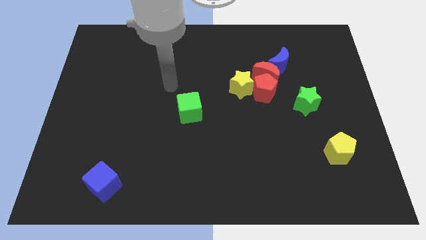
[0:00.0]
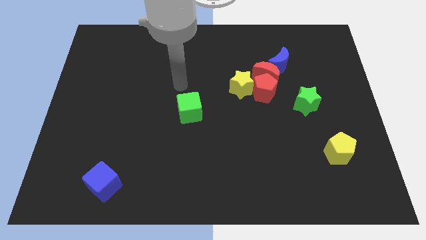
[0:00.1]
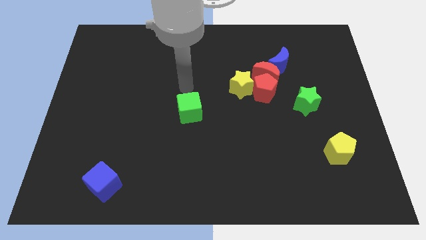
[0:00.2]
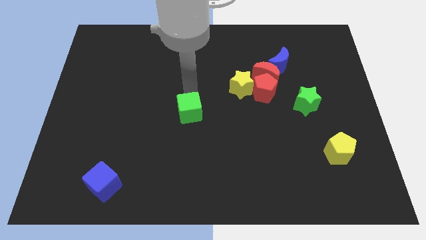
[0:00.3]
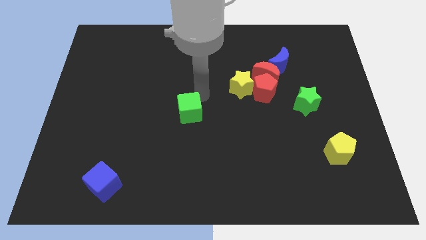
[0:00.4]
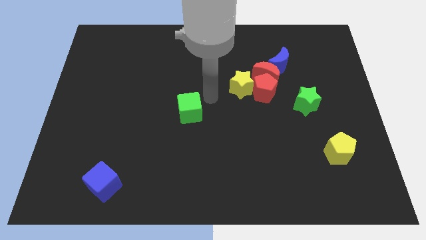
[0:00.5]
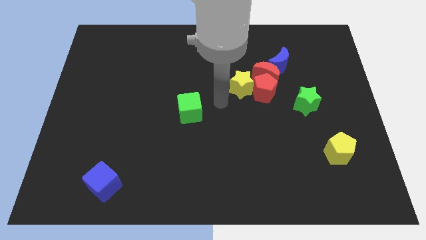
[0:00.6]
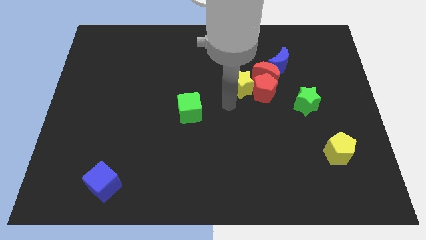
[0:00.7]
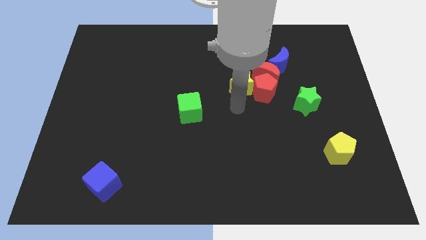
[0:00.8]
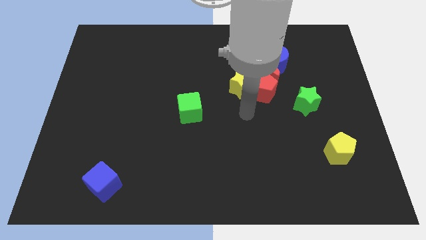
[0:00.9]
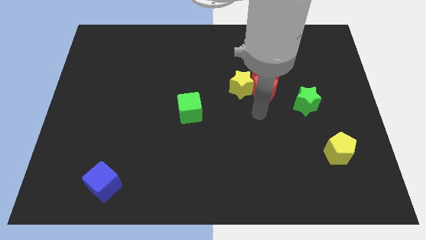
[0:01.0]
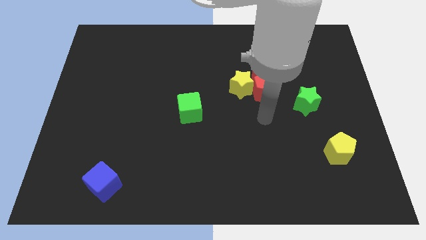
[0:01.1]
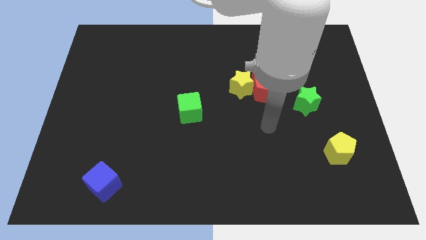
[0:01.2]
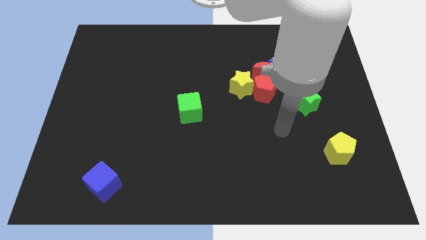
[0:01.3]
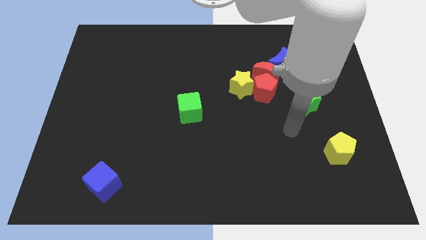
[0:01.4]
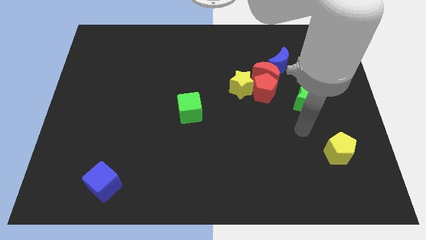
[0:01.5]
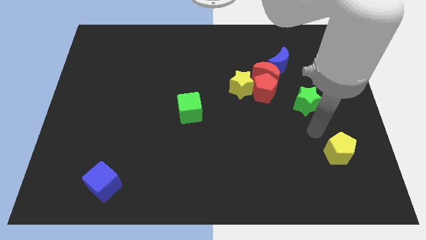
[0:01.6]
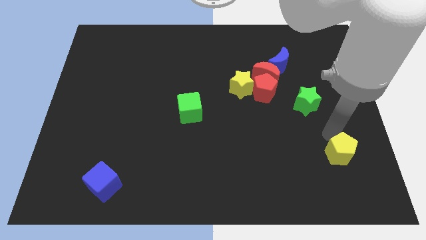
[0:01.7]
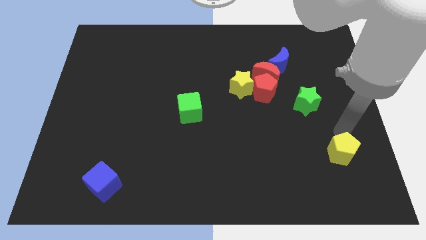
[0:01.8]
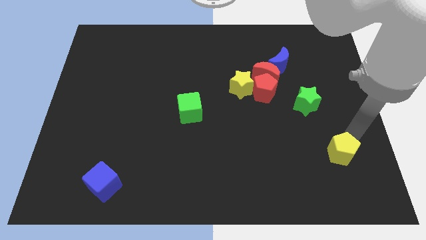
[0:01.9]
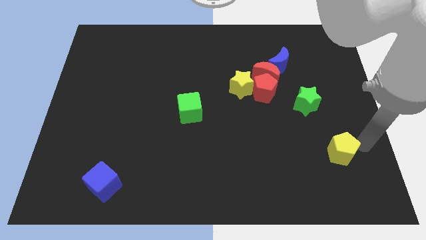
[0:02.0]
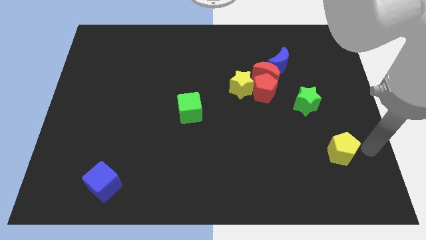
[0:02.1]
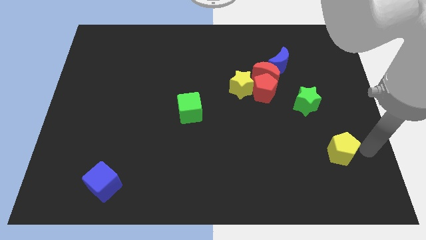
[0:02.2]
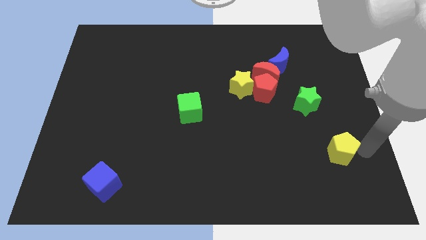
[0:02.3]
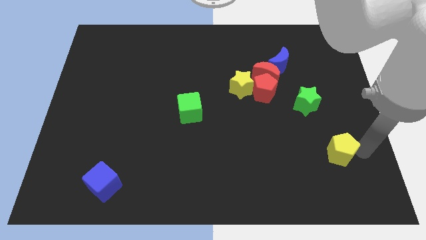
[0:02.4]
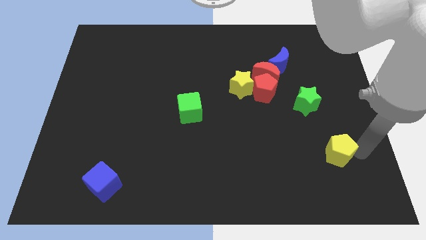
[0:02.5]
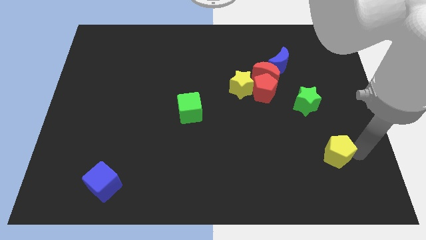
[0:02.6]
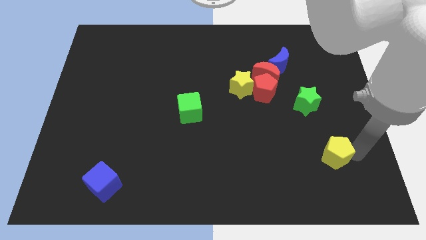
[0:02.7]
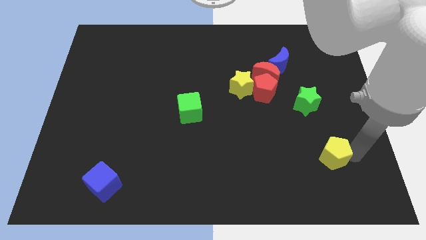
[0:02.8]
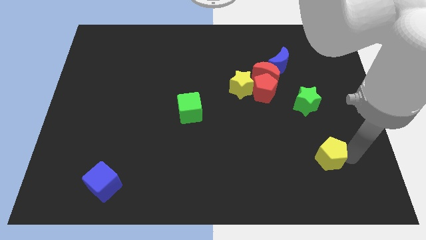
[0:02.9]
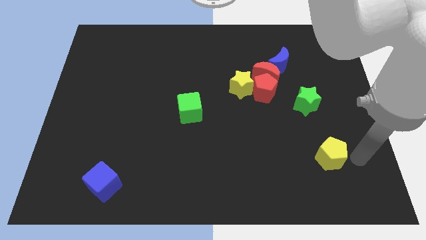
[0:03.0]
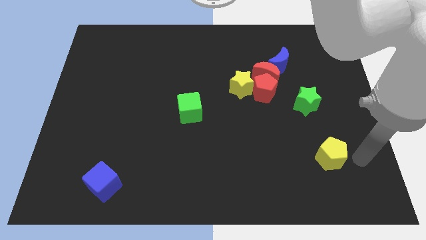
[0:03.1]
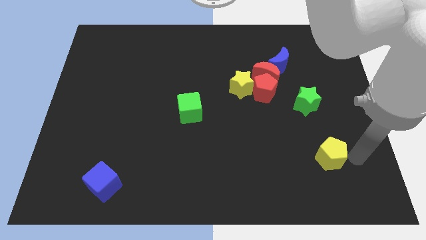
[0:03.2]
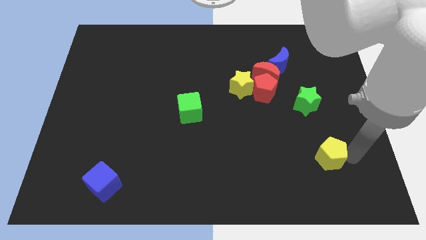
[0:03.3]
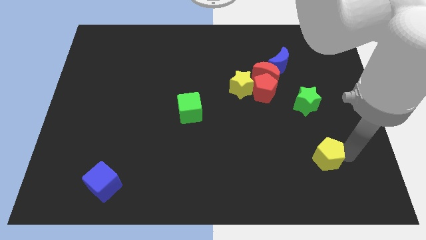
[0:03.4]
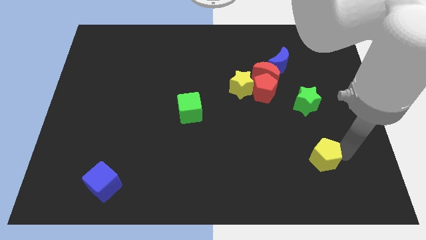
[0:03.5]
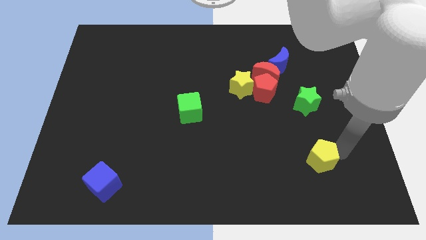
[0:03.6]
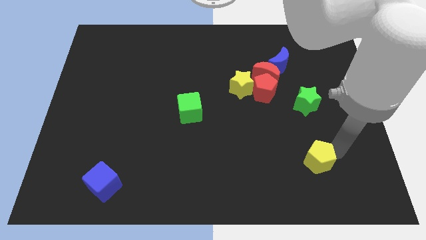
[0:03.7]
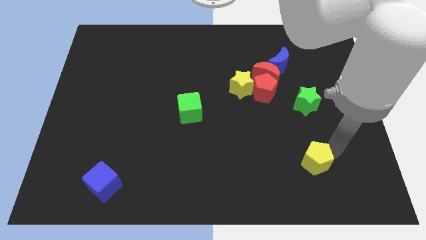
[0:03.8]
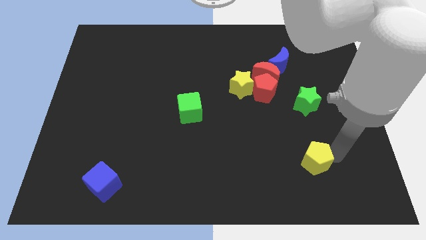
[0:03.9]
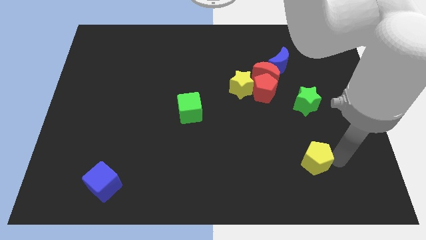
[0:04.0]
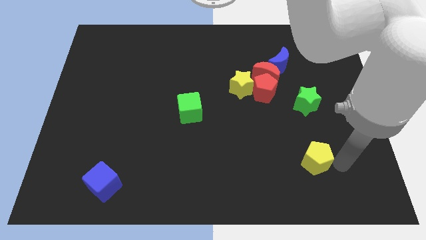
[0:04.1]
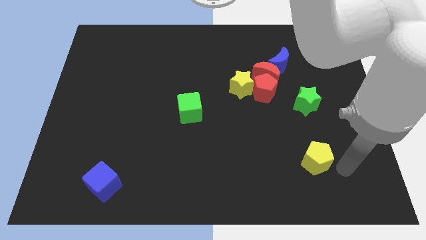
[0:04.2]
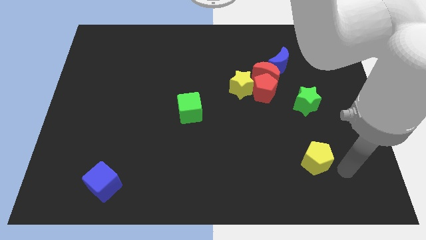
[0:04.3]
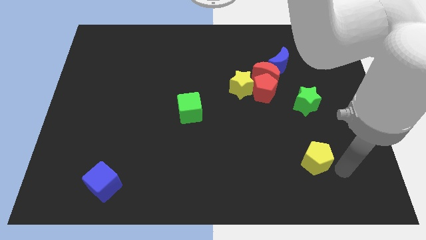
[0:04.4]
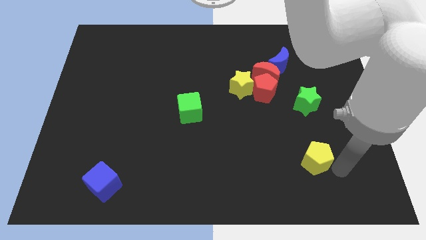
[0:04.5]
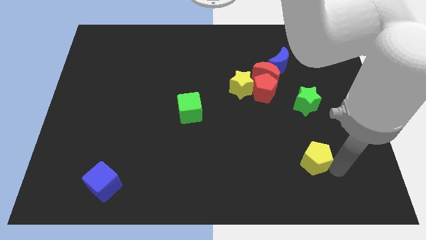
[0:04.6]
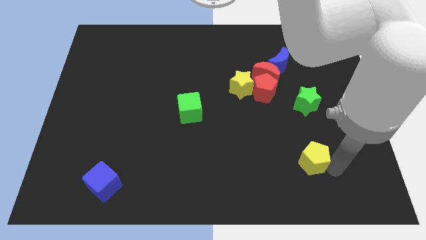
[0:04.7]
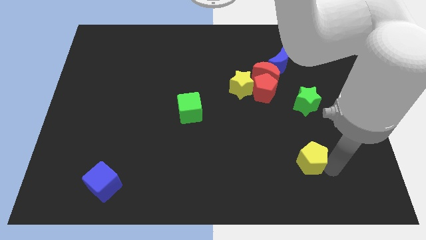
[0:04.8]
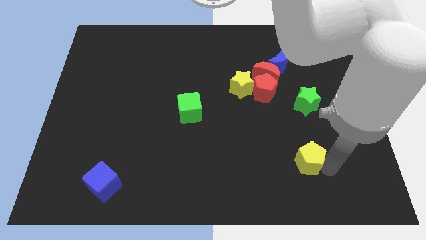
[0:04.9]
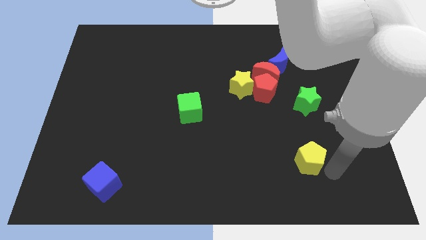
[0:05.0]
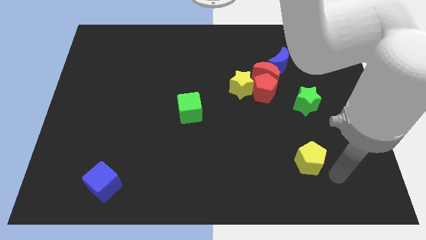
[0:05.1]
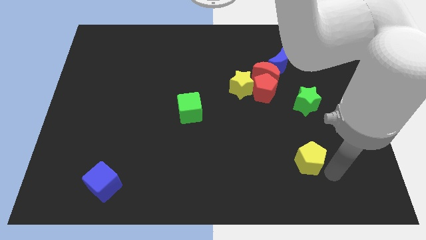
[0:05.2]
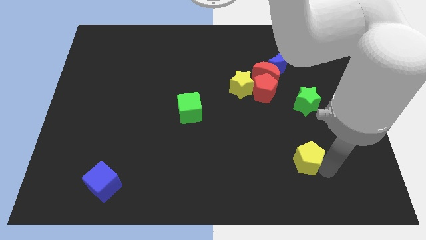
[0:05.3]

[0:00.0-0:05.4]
slightly push the yellow pentagon left

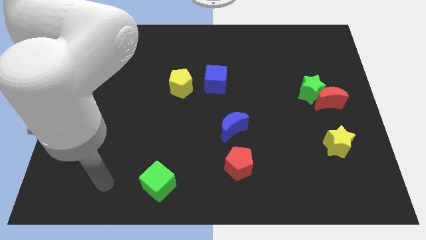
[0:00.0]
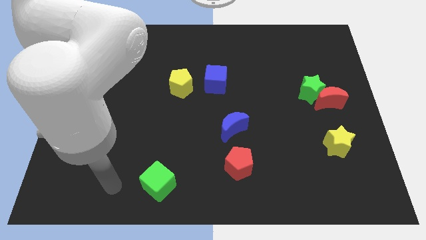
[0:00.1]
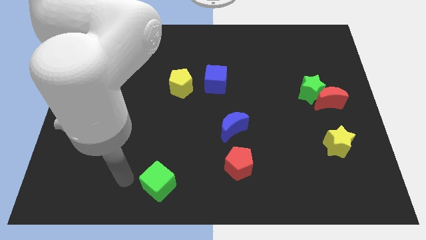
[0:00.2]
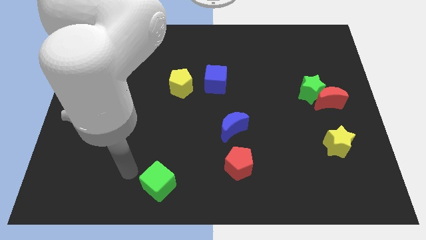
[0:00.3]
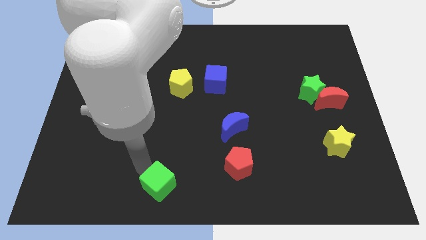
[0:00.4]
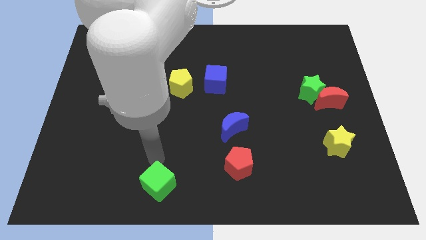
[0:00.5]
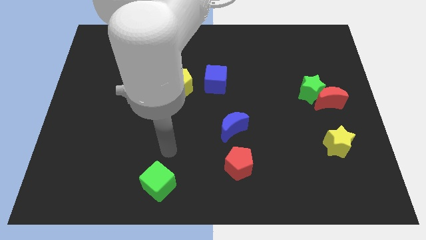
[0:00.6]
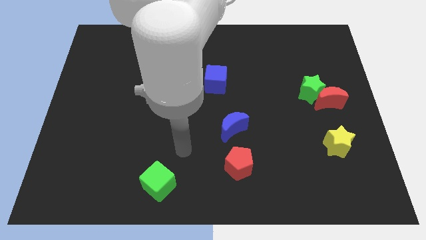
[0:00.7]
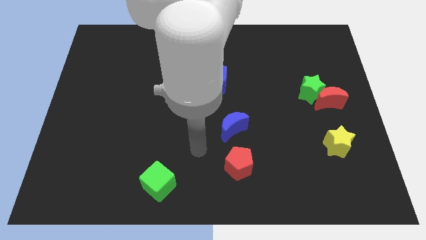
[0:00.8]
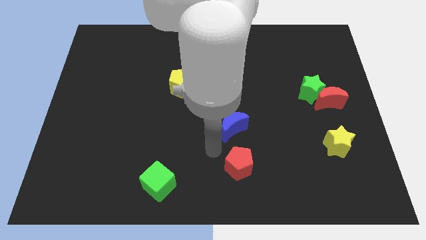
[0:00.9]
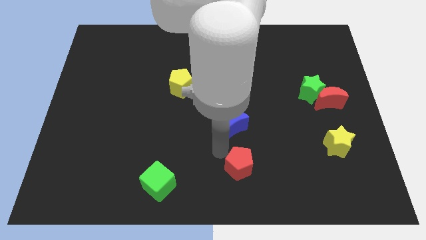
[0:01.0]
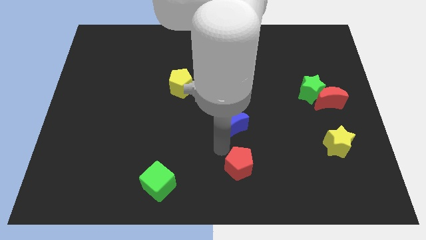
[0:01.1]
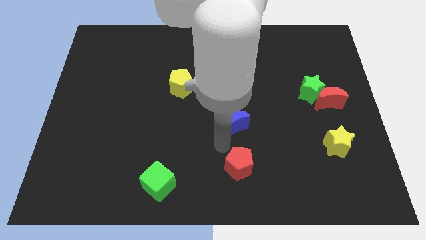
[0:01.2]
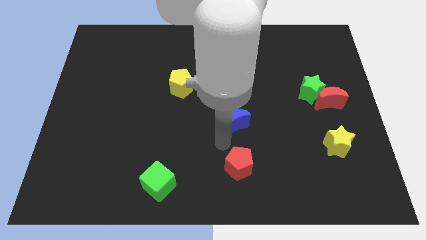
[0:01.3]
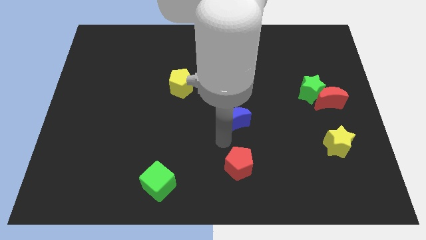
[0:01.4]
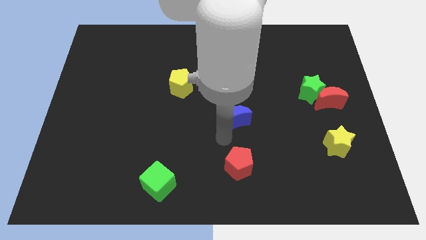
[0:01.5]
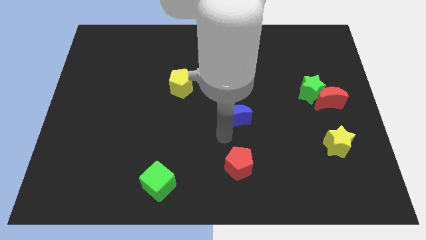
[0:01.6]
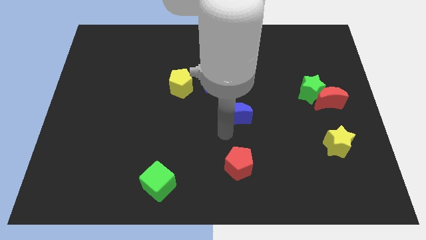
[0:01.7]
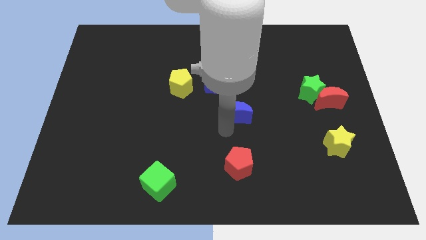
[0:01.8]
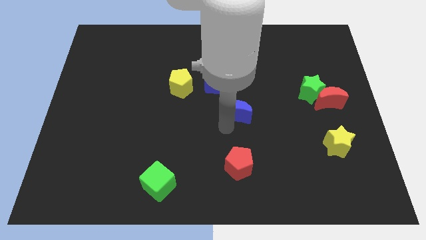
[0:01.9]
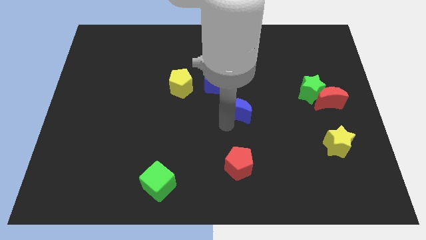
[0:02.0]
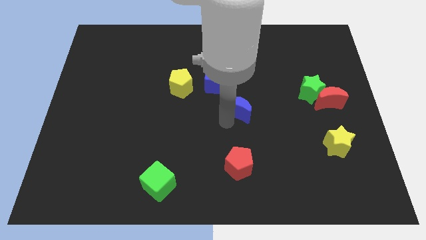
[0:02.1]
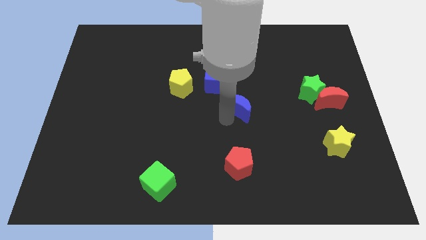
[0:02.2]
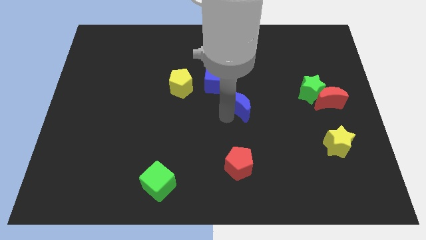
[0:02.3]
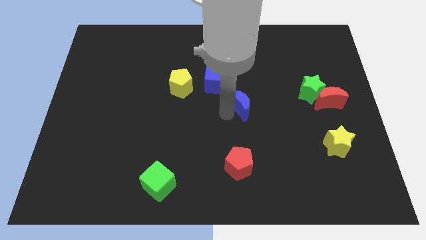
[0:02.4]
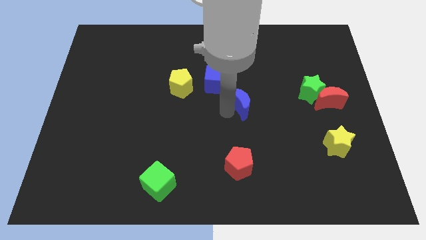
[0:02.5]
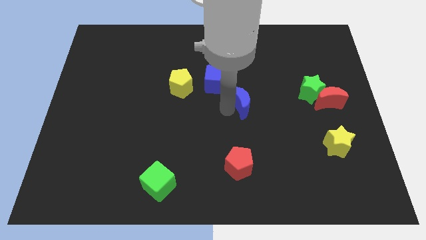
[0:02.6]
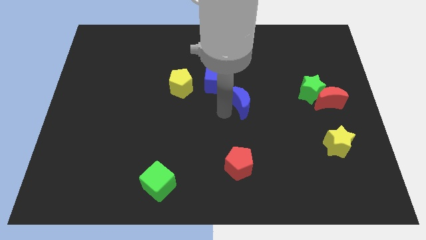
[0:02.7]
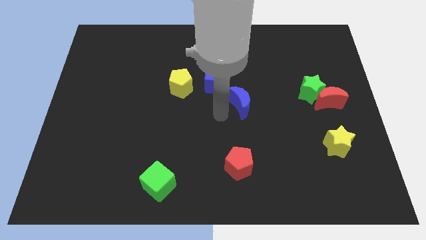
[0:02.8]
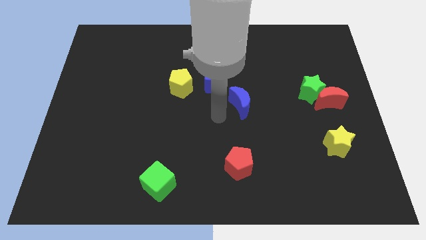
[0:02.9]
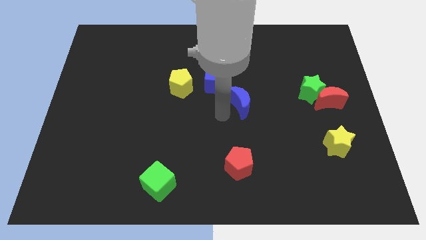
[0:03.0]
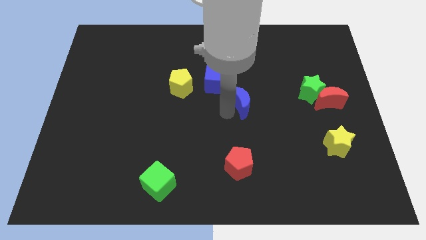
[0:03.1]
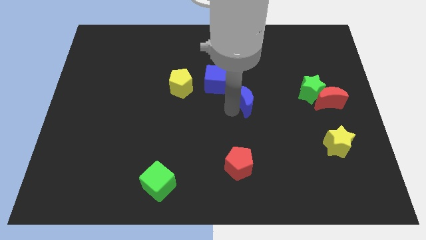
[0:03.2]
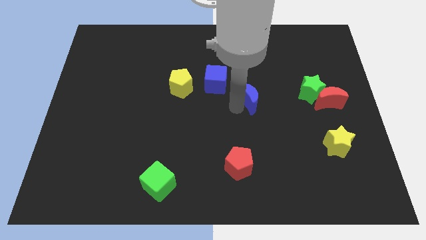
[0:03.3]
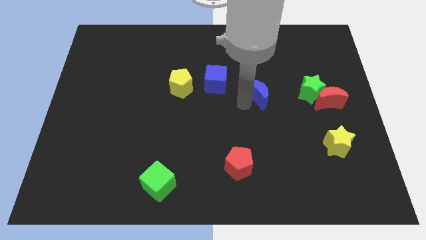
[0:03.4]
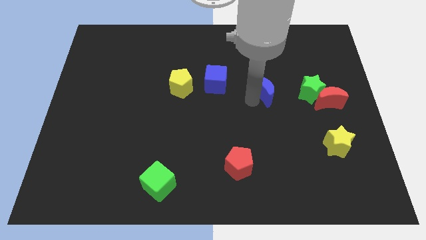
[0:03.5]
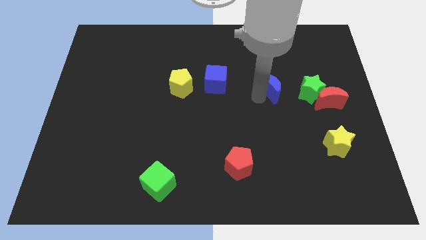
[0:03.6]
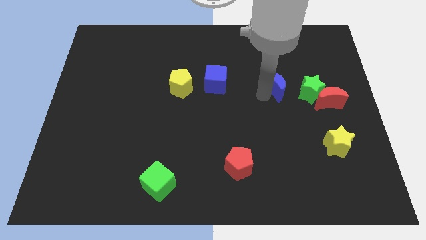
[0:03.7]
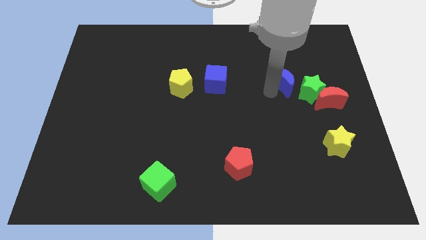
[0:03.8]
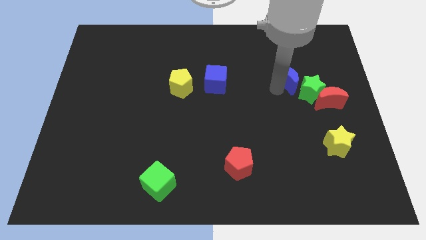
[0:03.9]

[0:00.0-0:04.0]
move the blue moon upwards and to the right diagonally
